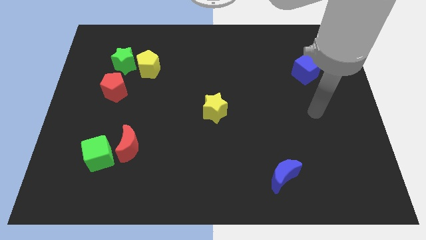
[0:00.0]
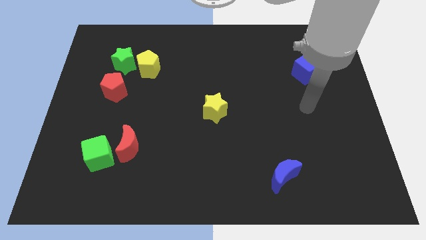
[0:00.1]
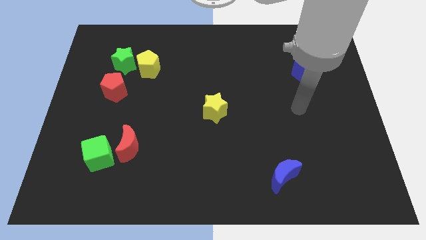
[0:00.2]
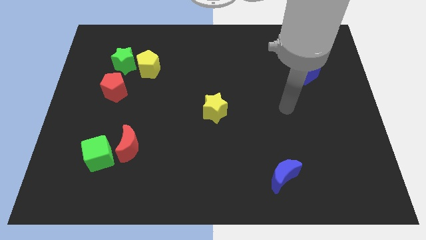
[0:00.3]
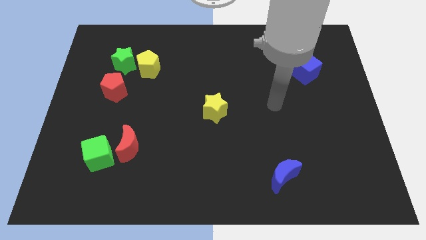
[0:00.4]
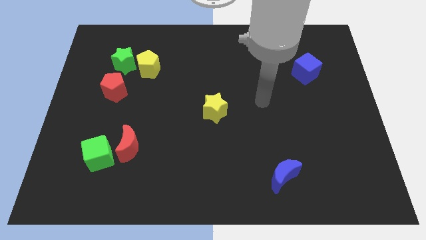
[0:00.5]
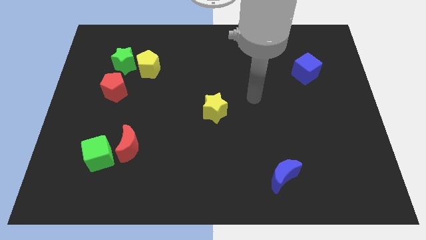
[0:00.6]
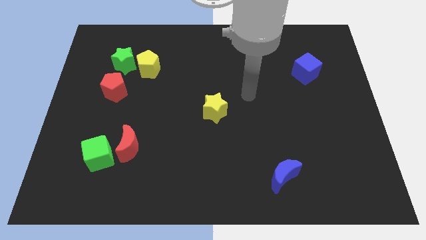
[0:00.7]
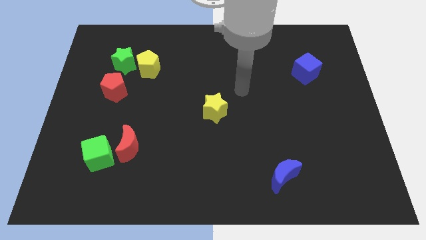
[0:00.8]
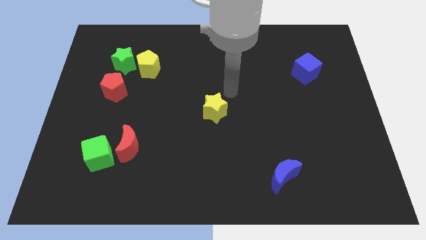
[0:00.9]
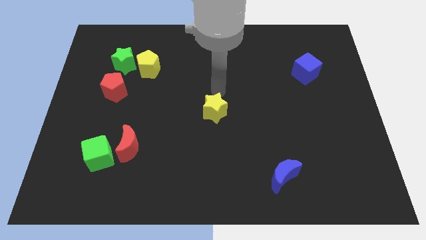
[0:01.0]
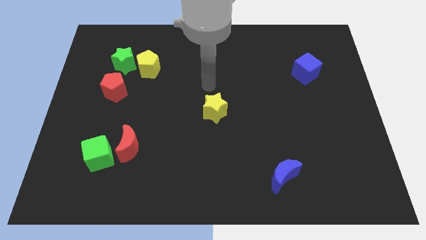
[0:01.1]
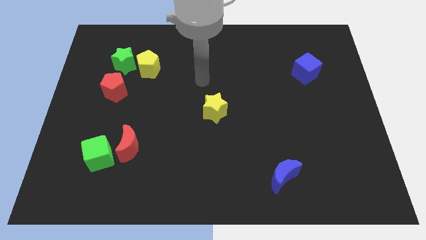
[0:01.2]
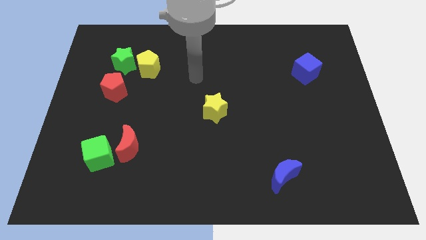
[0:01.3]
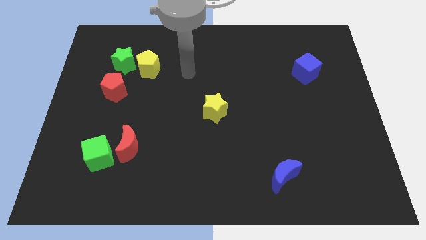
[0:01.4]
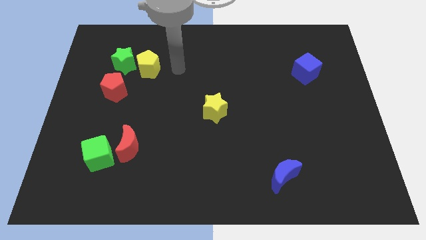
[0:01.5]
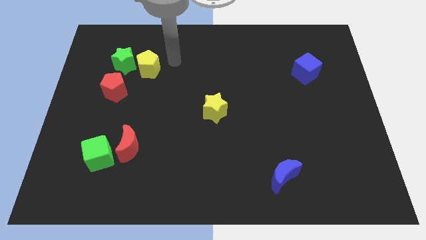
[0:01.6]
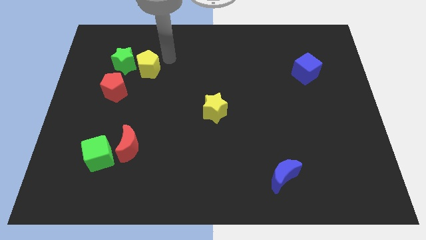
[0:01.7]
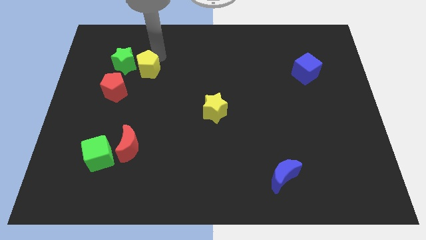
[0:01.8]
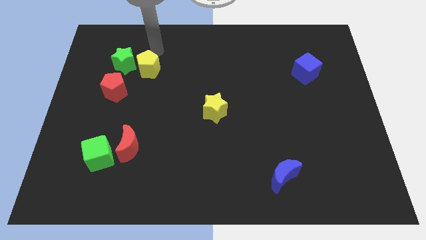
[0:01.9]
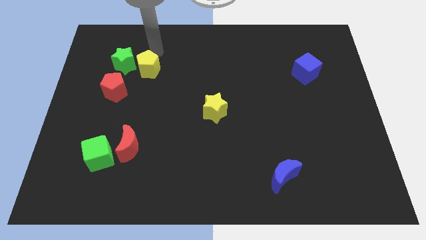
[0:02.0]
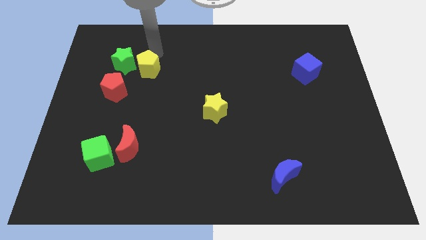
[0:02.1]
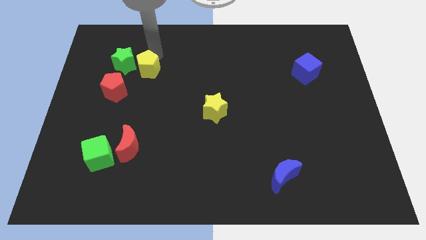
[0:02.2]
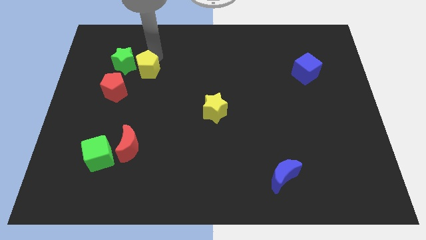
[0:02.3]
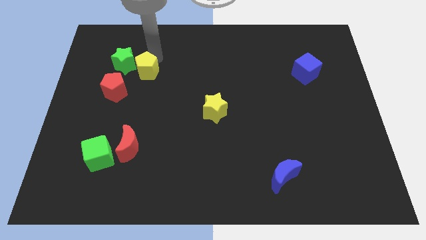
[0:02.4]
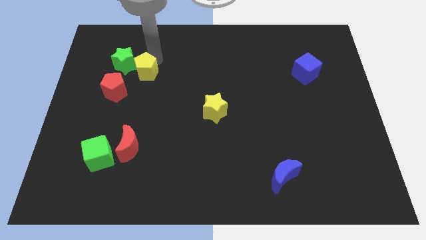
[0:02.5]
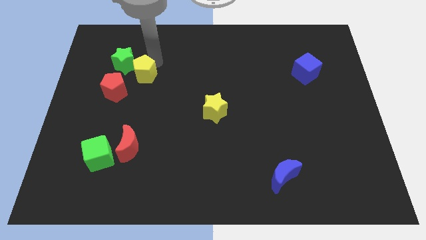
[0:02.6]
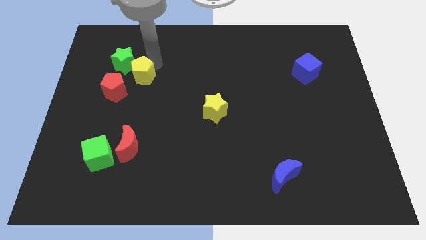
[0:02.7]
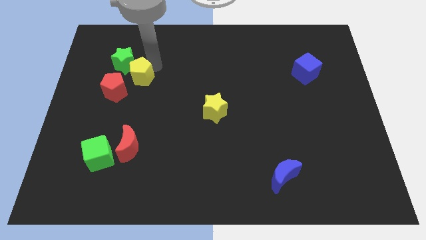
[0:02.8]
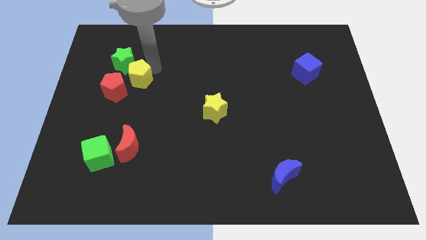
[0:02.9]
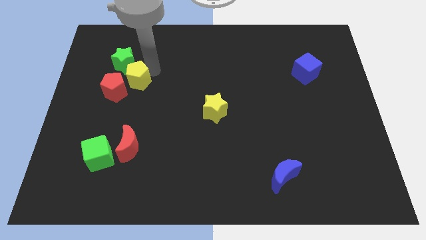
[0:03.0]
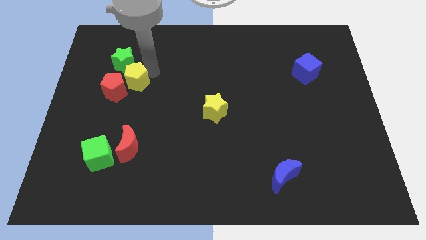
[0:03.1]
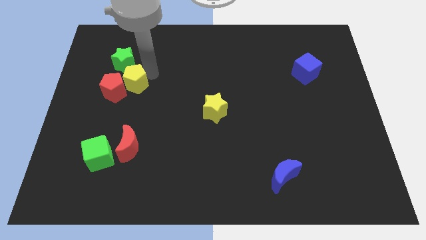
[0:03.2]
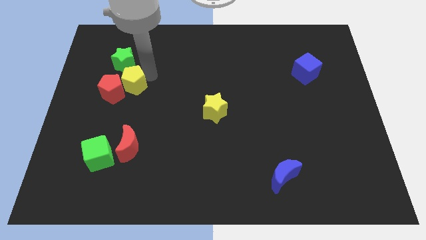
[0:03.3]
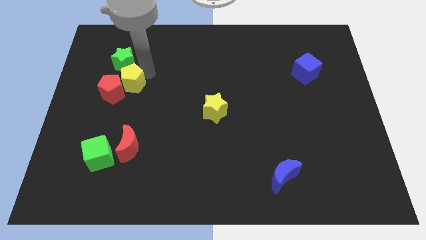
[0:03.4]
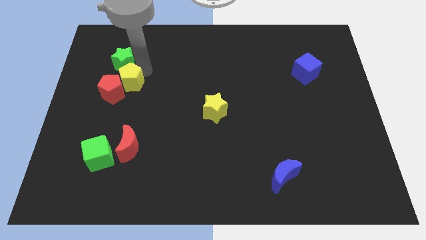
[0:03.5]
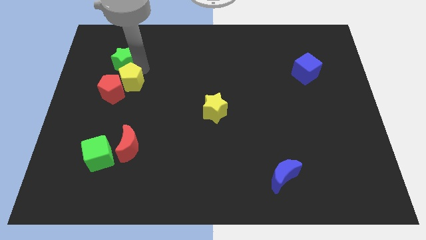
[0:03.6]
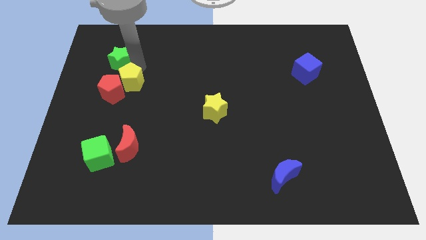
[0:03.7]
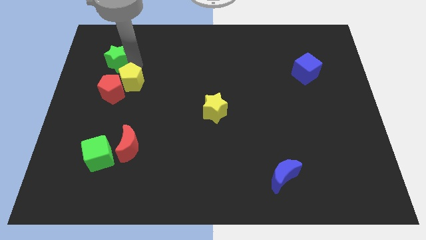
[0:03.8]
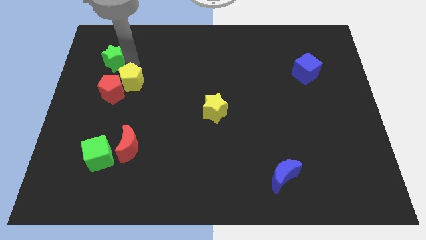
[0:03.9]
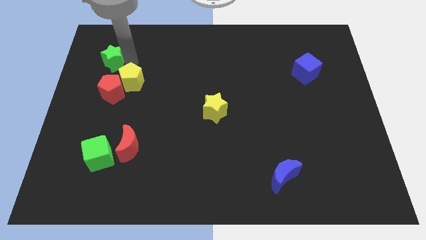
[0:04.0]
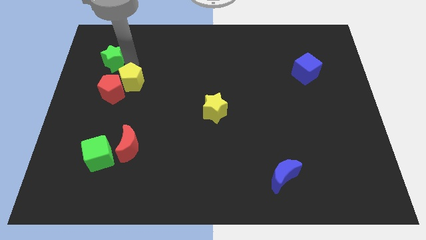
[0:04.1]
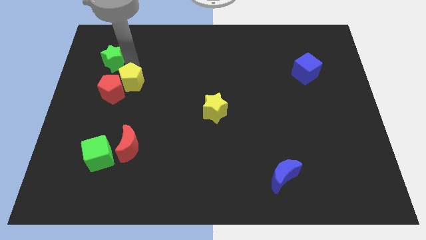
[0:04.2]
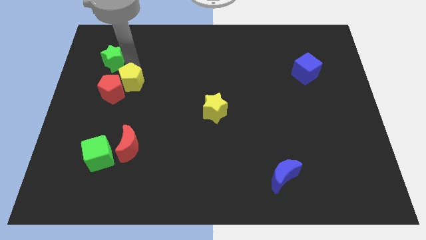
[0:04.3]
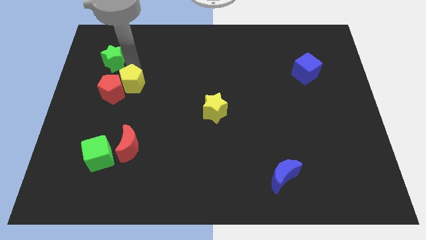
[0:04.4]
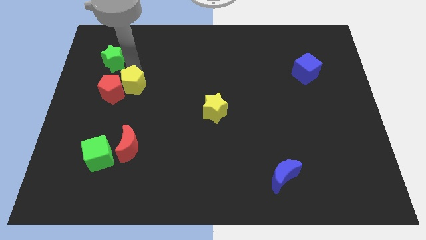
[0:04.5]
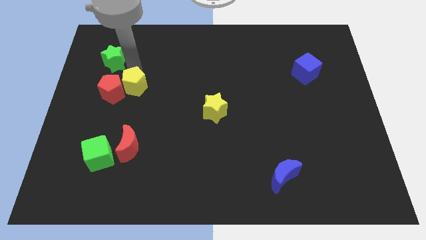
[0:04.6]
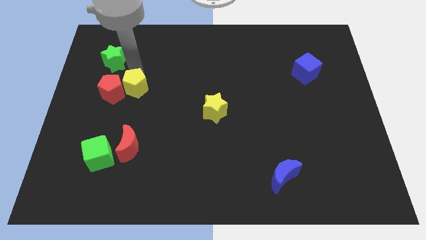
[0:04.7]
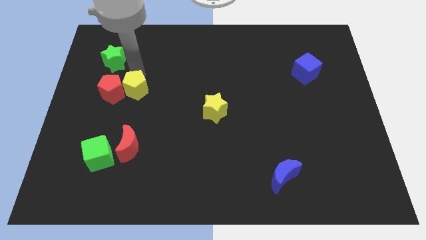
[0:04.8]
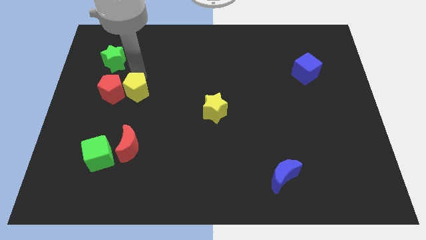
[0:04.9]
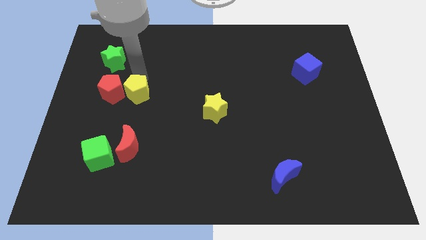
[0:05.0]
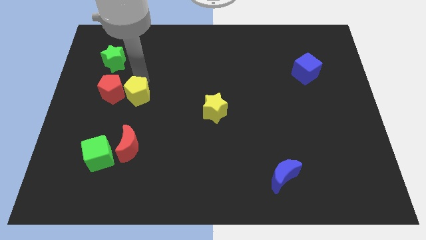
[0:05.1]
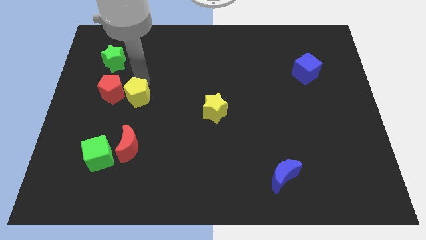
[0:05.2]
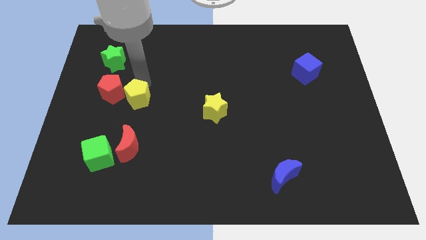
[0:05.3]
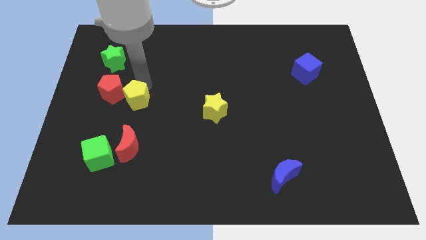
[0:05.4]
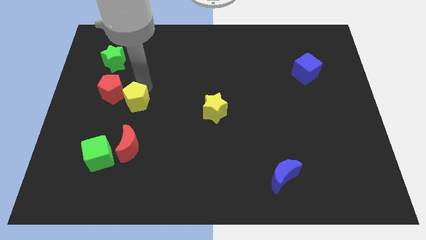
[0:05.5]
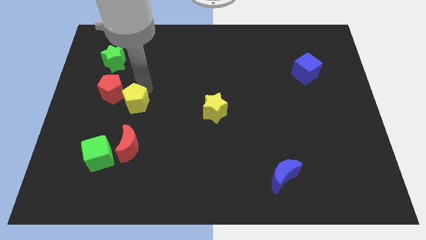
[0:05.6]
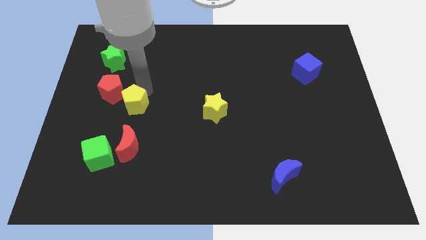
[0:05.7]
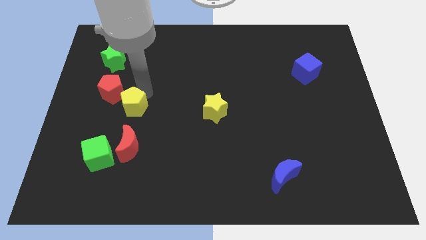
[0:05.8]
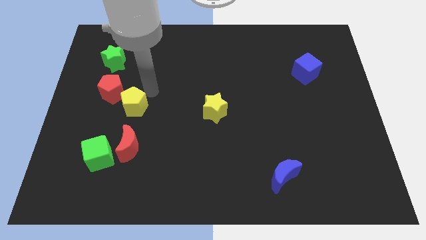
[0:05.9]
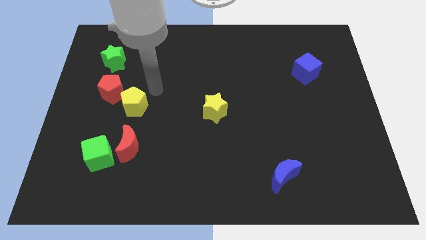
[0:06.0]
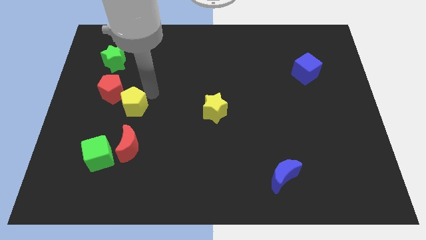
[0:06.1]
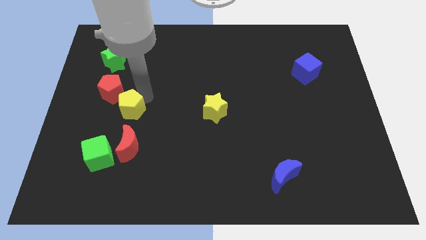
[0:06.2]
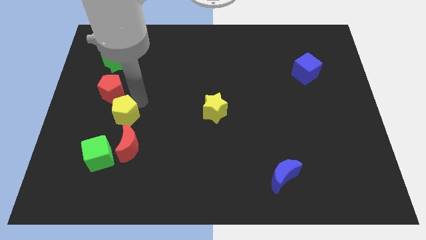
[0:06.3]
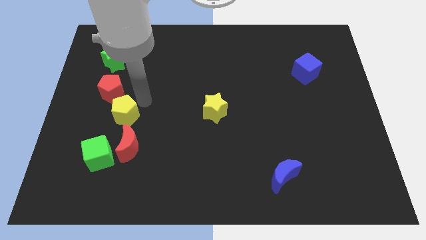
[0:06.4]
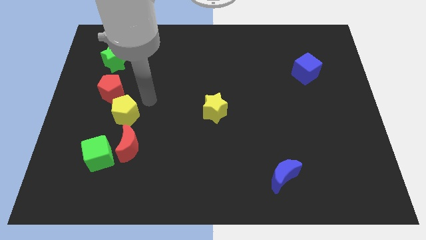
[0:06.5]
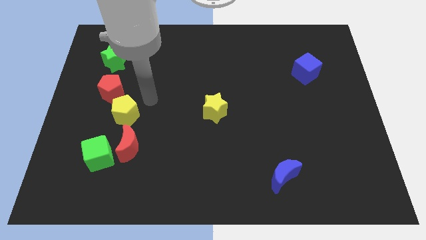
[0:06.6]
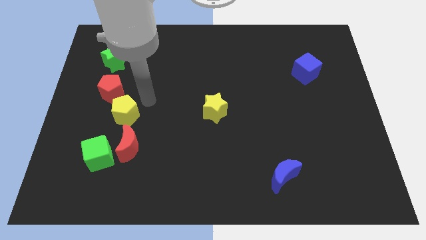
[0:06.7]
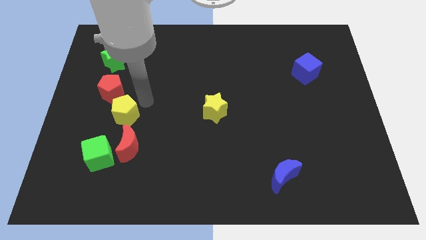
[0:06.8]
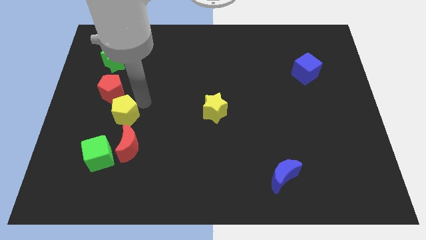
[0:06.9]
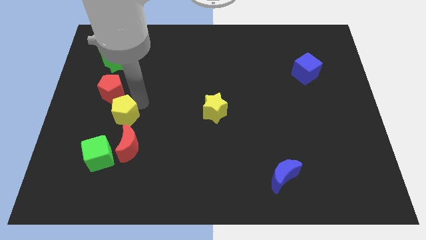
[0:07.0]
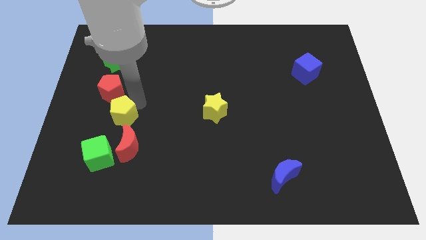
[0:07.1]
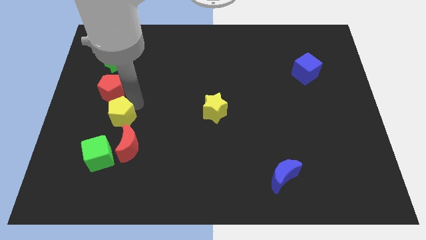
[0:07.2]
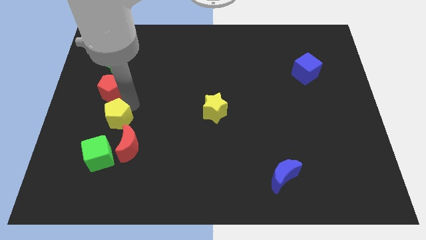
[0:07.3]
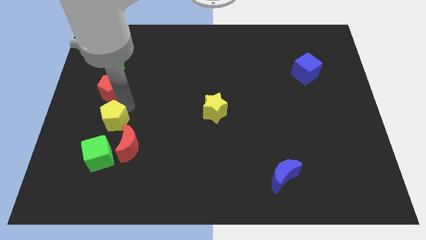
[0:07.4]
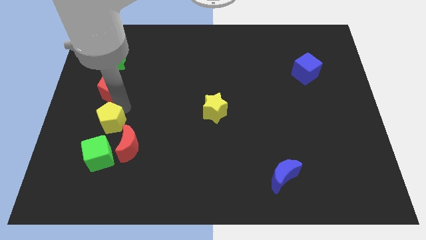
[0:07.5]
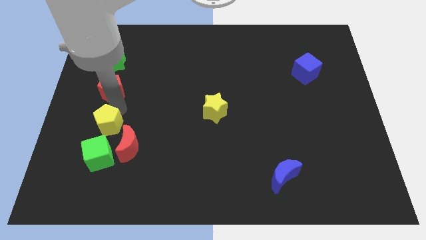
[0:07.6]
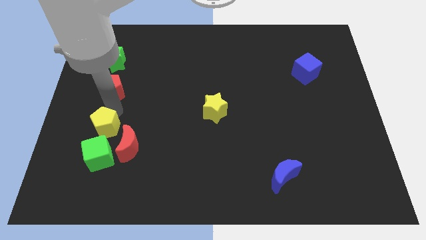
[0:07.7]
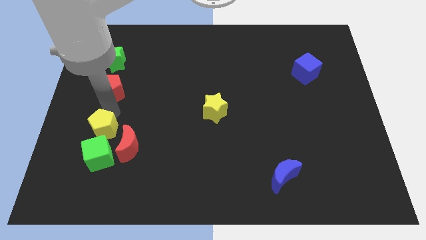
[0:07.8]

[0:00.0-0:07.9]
push the yellow pentagon left of the red moon

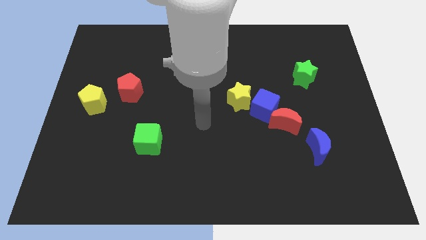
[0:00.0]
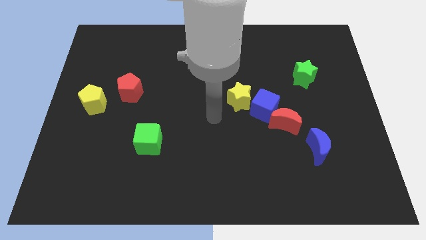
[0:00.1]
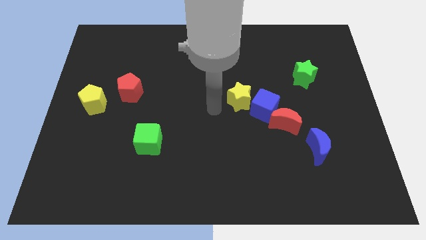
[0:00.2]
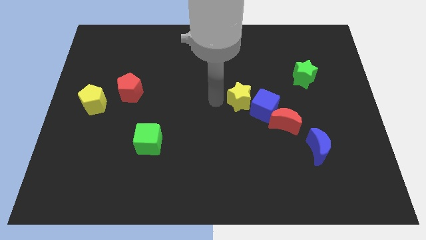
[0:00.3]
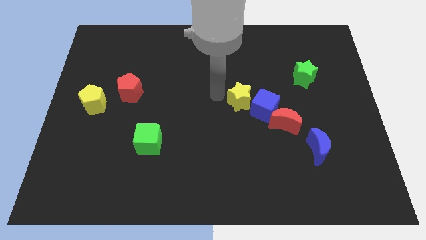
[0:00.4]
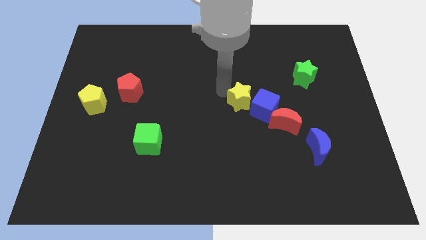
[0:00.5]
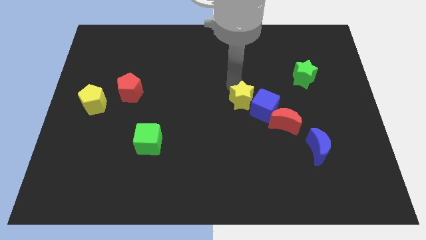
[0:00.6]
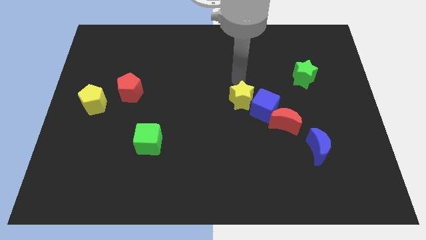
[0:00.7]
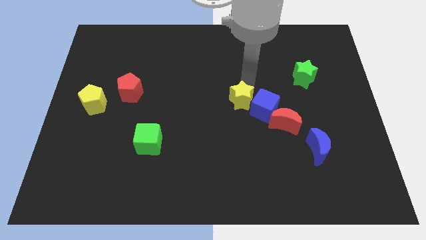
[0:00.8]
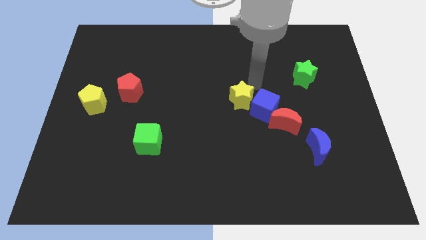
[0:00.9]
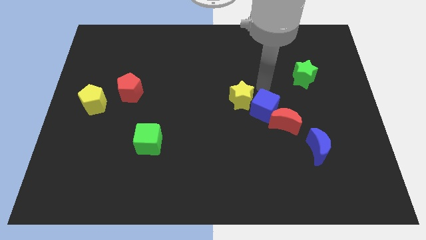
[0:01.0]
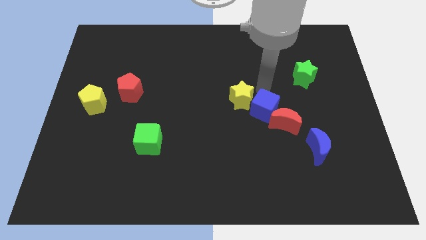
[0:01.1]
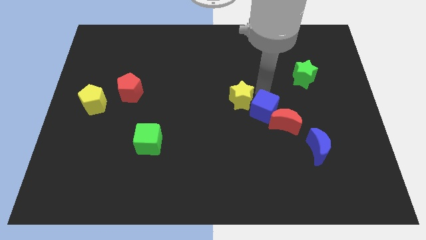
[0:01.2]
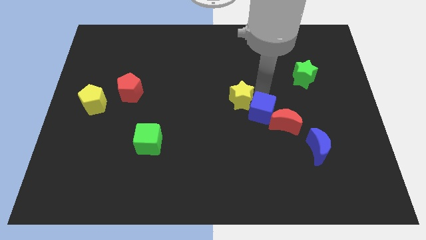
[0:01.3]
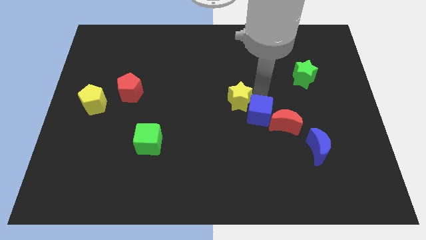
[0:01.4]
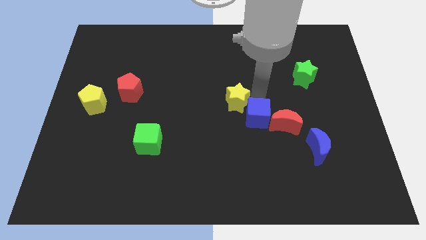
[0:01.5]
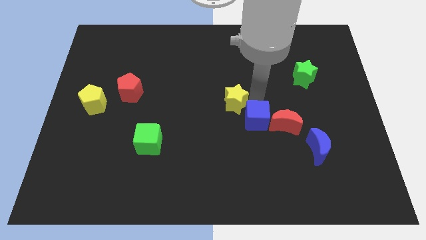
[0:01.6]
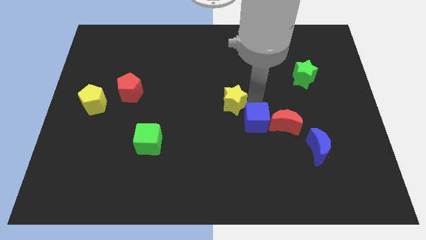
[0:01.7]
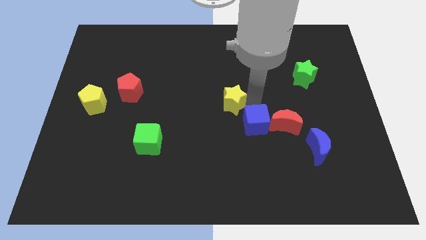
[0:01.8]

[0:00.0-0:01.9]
push the blue cube to the bottom left side of the red moon
